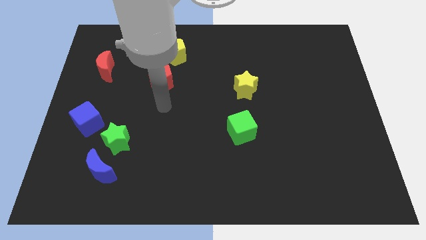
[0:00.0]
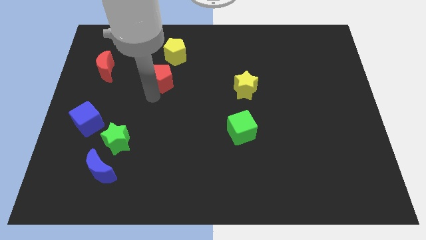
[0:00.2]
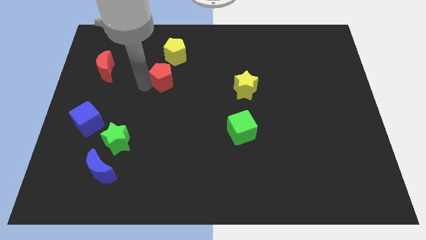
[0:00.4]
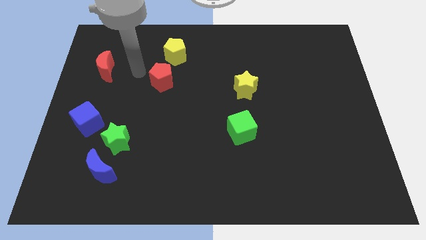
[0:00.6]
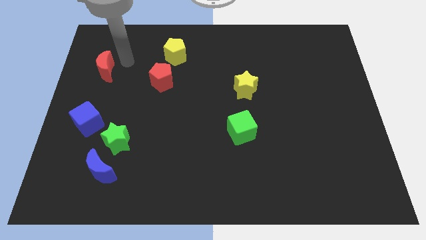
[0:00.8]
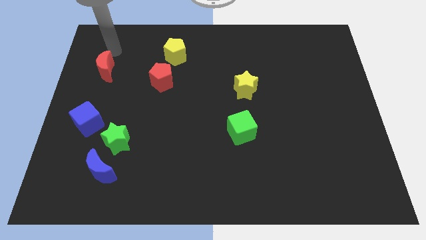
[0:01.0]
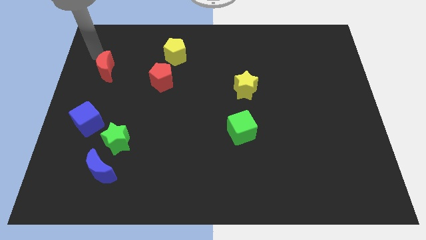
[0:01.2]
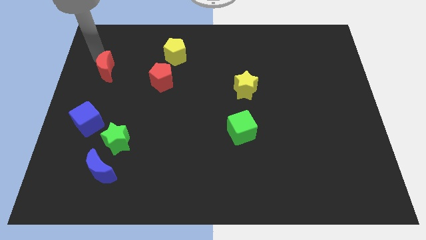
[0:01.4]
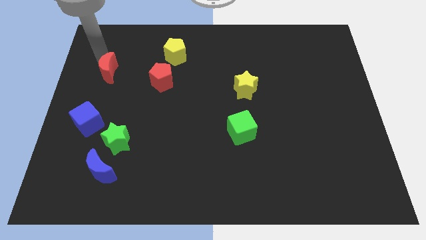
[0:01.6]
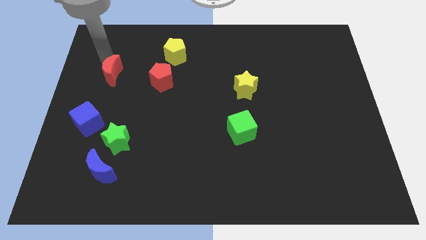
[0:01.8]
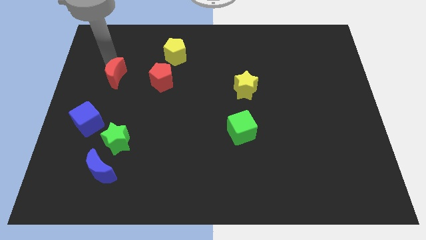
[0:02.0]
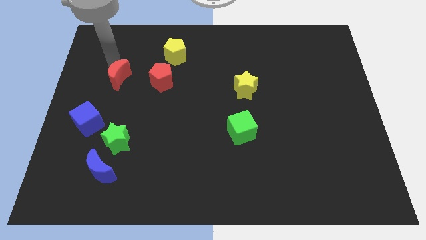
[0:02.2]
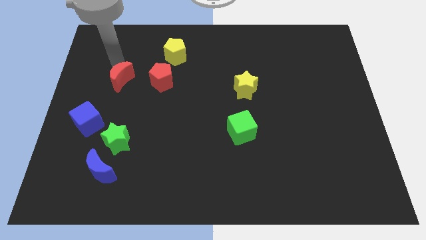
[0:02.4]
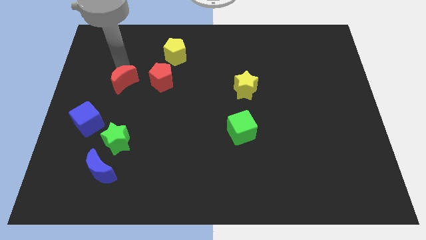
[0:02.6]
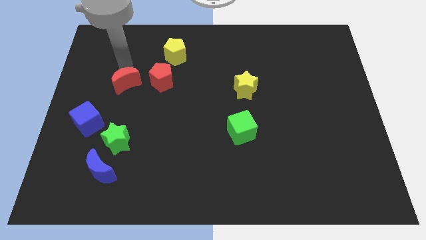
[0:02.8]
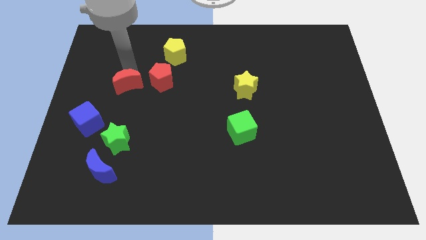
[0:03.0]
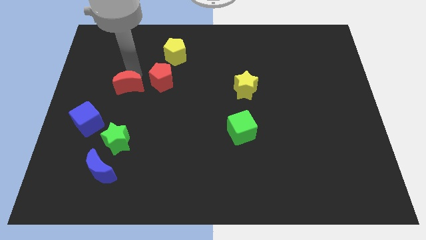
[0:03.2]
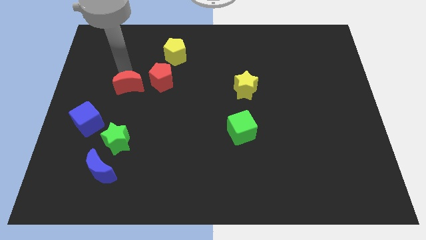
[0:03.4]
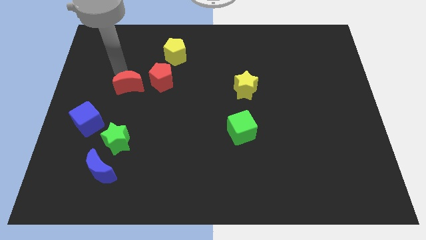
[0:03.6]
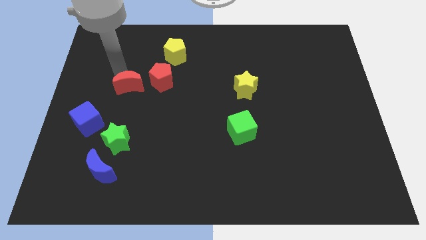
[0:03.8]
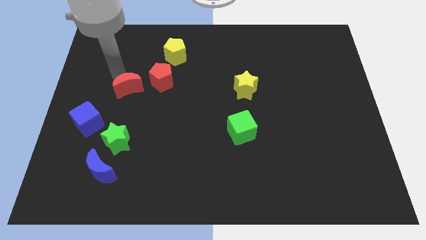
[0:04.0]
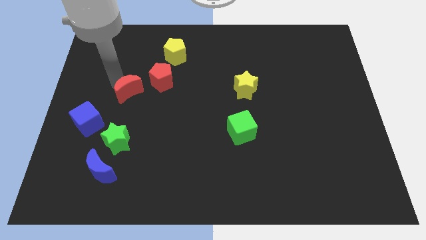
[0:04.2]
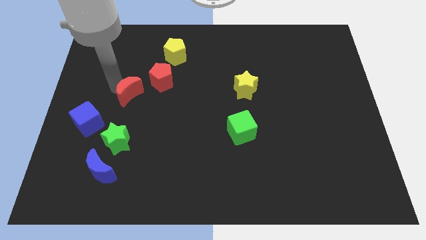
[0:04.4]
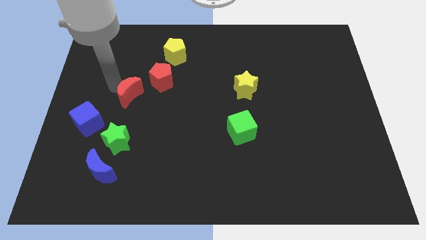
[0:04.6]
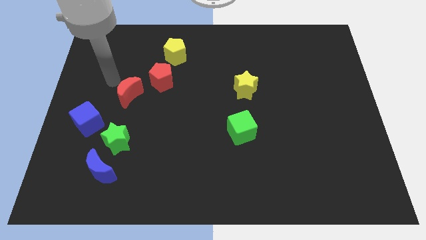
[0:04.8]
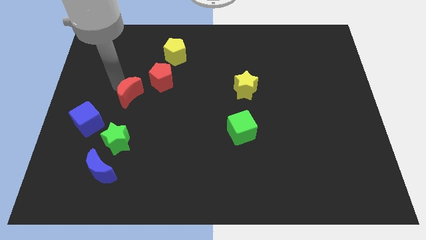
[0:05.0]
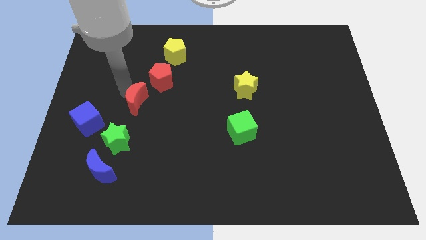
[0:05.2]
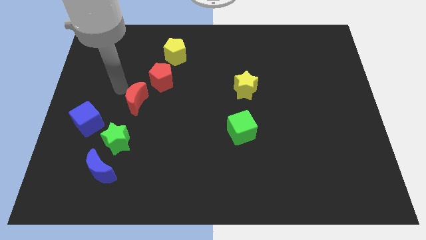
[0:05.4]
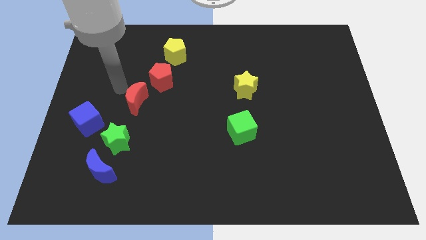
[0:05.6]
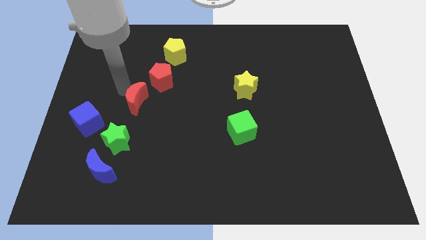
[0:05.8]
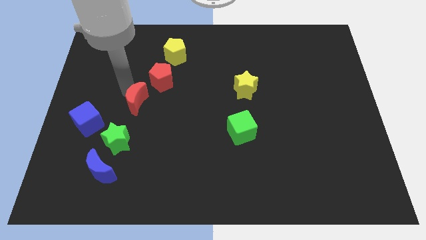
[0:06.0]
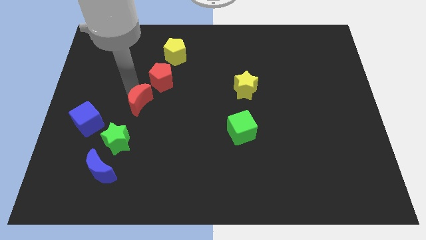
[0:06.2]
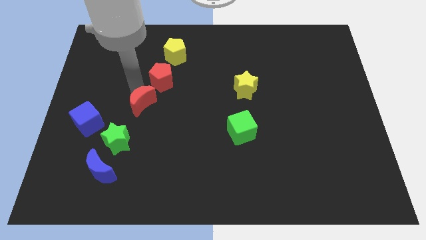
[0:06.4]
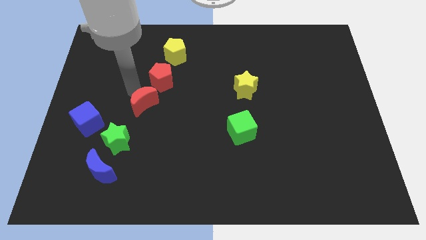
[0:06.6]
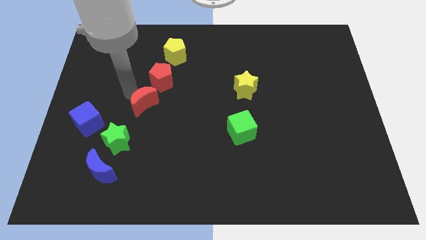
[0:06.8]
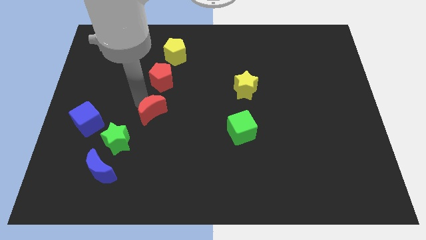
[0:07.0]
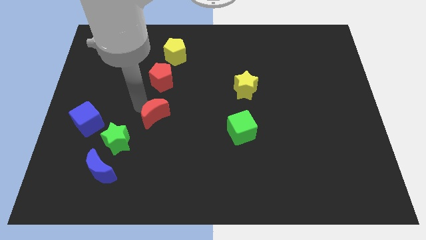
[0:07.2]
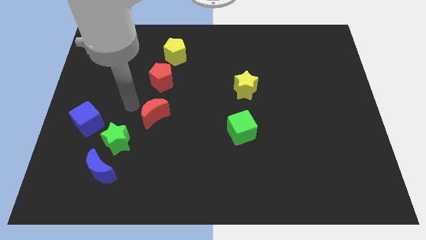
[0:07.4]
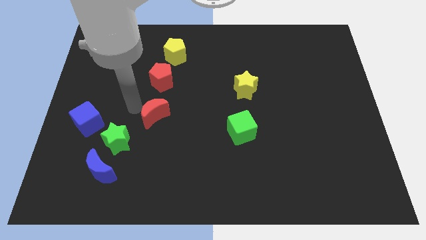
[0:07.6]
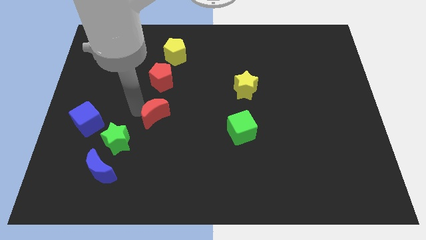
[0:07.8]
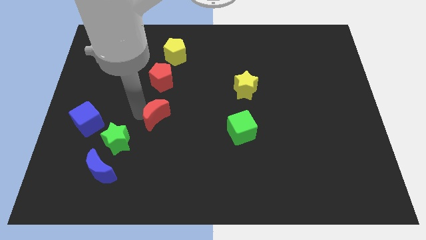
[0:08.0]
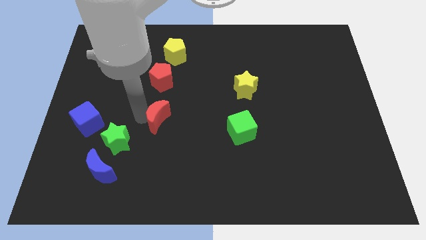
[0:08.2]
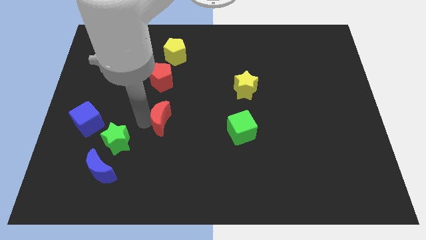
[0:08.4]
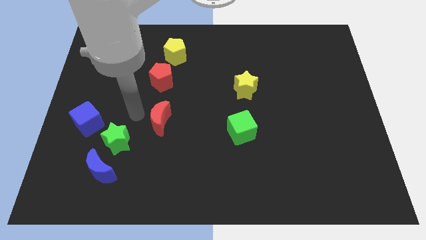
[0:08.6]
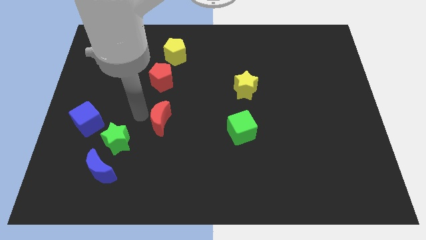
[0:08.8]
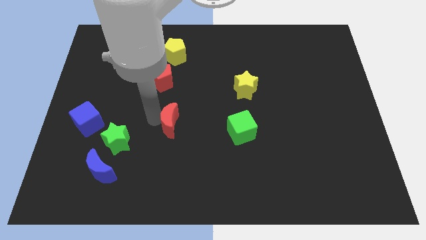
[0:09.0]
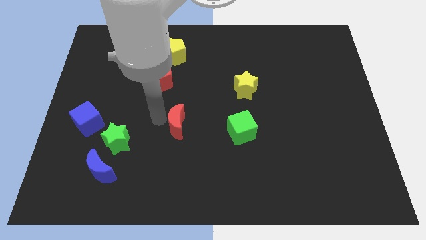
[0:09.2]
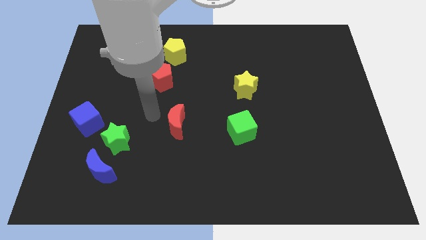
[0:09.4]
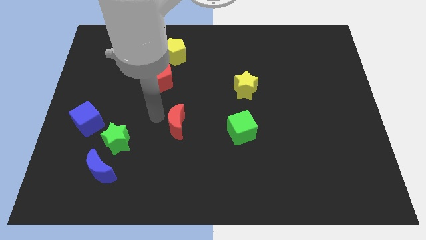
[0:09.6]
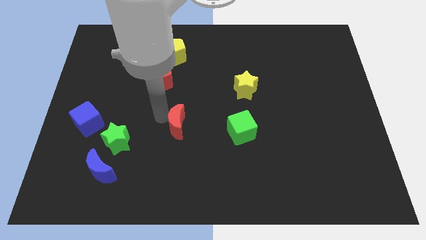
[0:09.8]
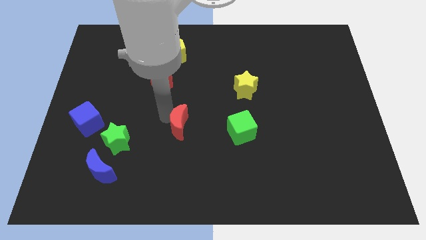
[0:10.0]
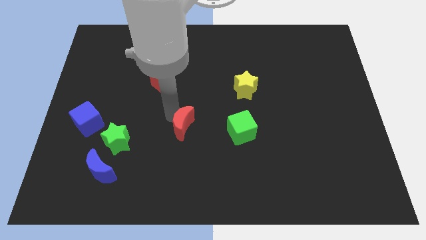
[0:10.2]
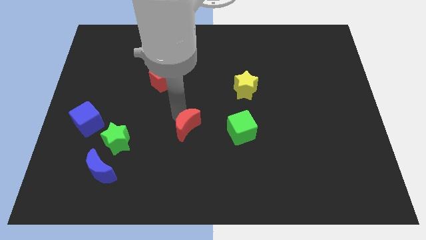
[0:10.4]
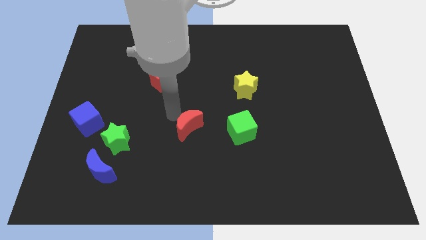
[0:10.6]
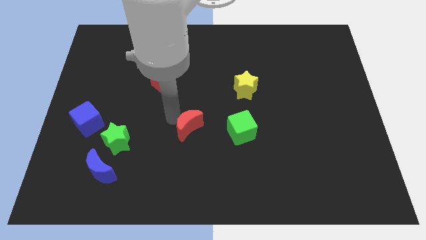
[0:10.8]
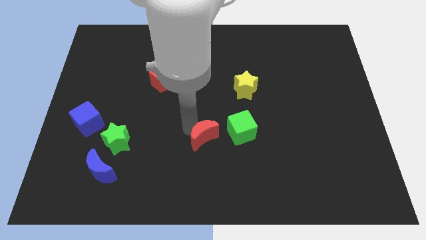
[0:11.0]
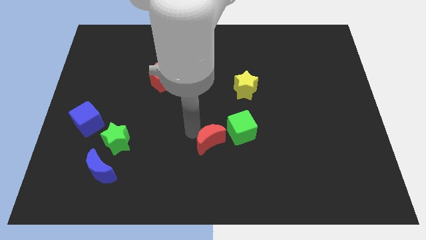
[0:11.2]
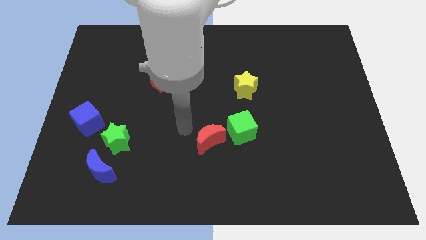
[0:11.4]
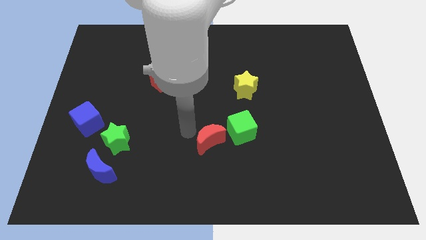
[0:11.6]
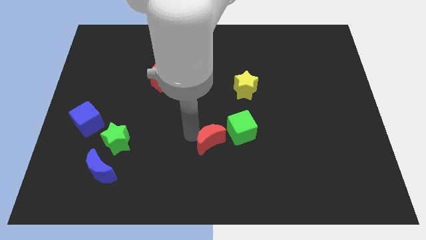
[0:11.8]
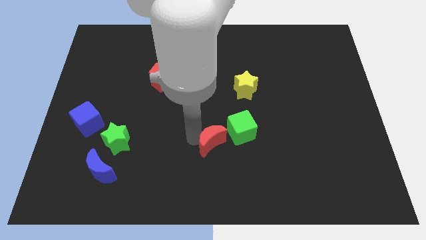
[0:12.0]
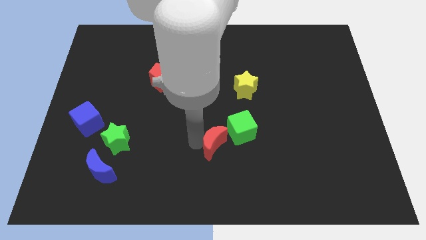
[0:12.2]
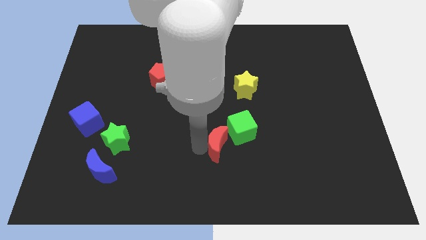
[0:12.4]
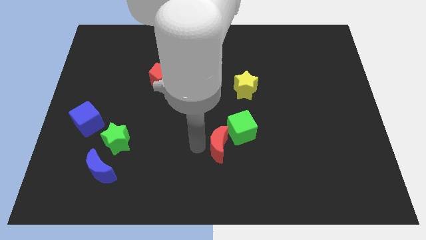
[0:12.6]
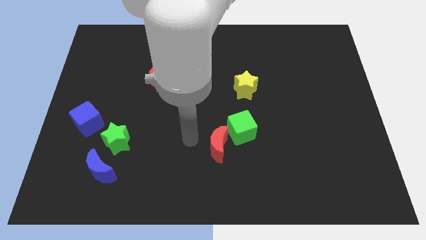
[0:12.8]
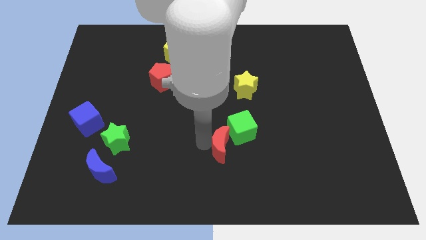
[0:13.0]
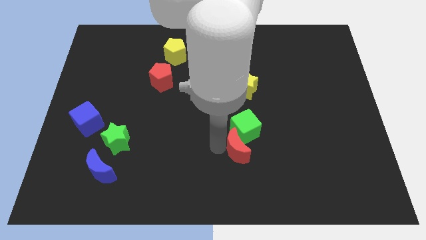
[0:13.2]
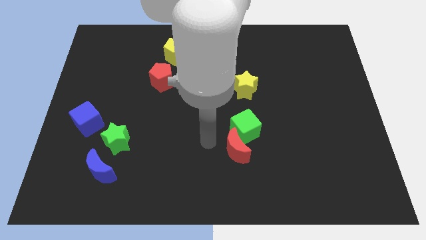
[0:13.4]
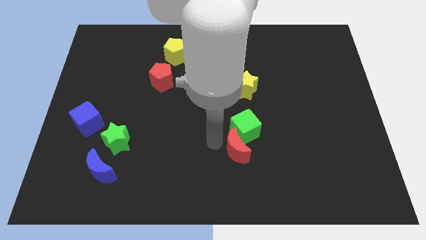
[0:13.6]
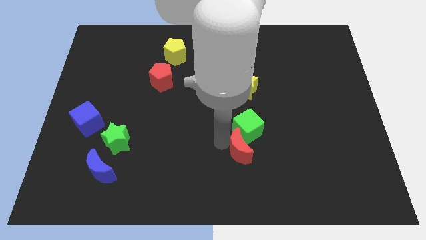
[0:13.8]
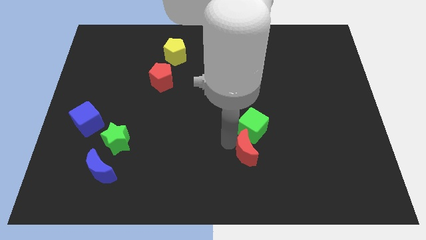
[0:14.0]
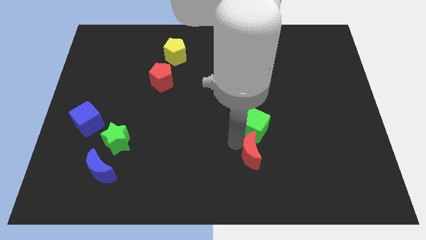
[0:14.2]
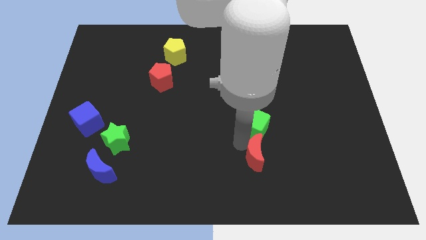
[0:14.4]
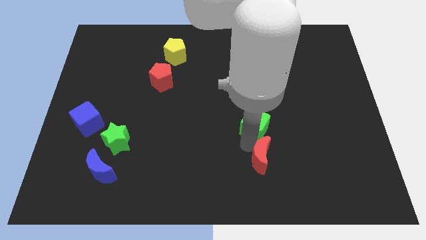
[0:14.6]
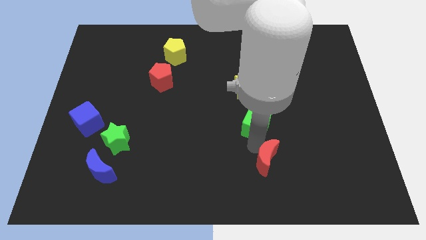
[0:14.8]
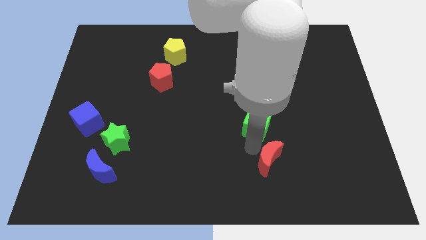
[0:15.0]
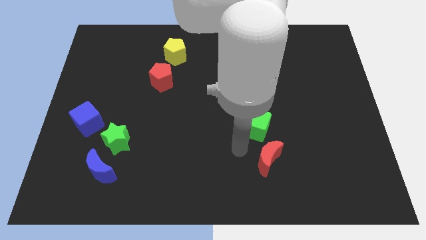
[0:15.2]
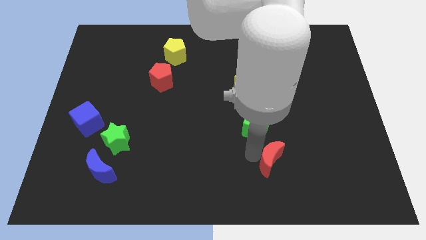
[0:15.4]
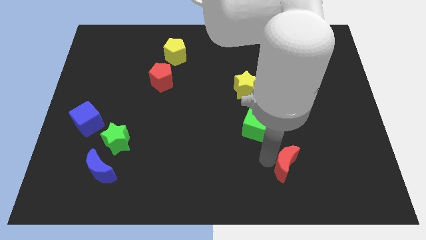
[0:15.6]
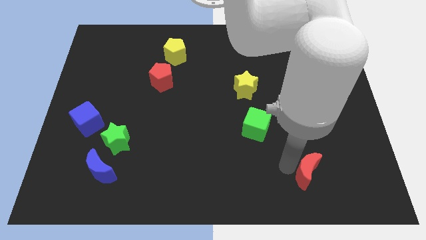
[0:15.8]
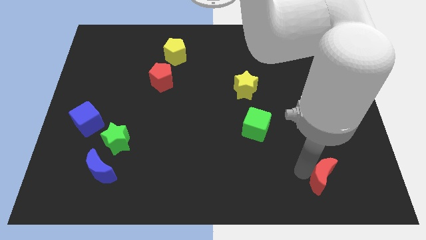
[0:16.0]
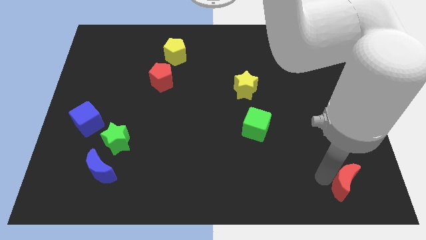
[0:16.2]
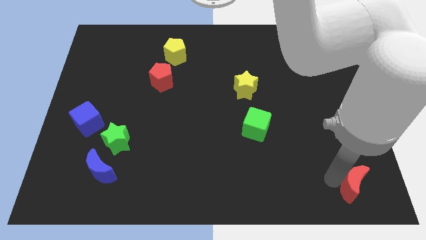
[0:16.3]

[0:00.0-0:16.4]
put the red moon to the lower right corner
